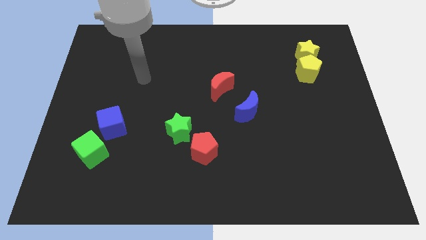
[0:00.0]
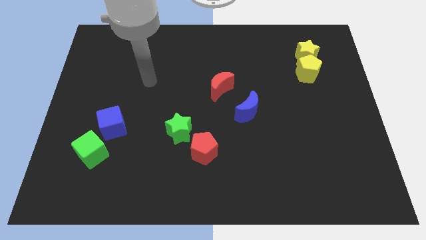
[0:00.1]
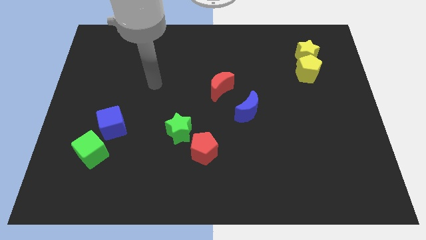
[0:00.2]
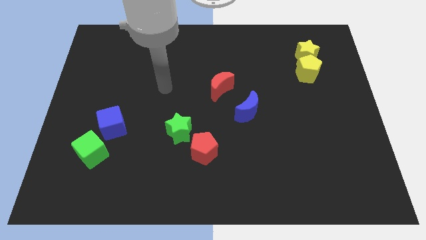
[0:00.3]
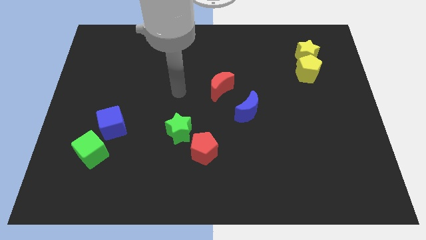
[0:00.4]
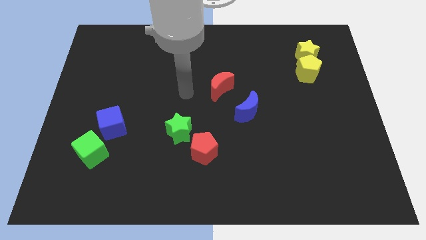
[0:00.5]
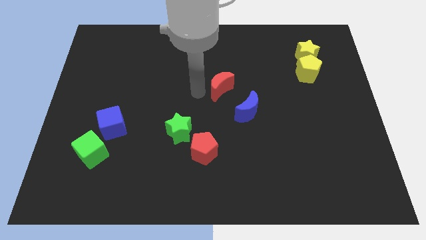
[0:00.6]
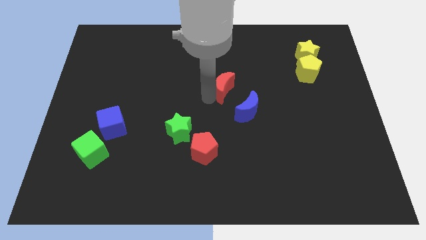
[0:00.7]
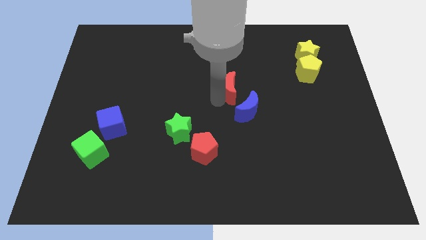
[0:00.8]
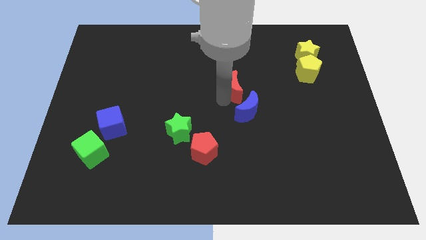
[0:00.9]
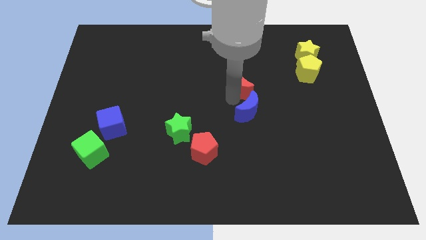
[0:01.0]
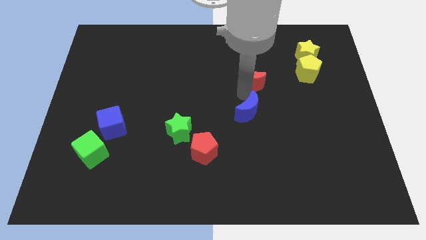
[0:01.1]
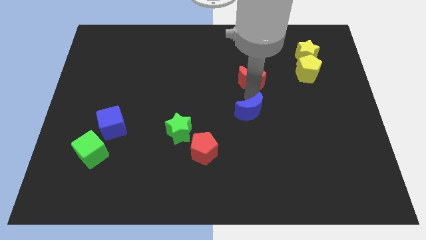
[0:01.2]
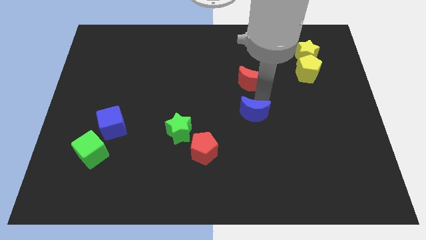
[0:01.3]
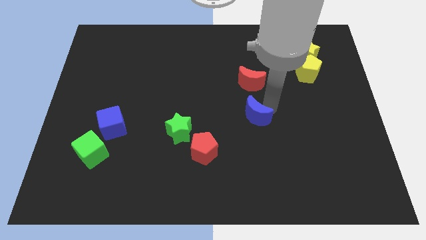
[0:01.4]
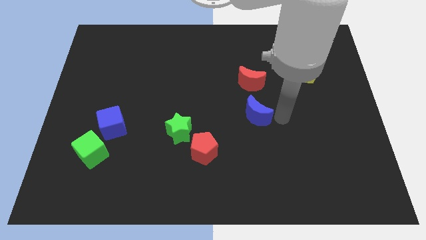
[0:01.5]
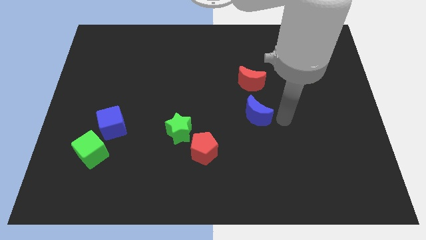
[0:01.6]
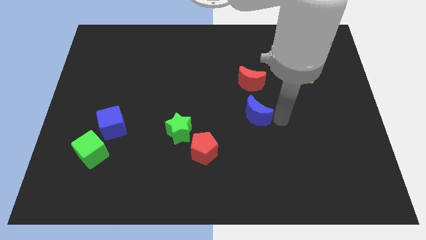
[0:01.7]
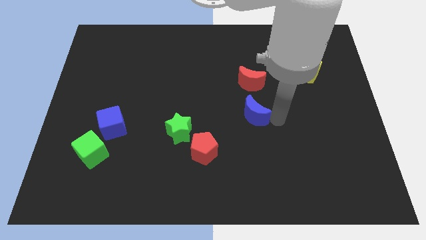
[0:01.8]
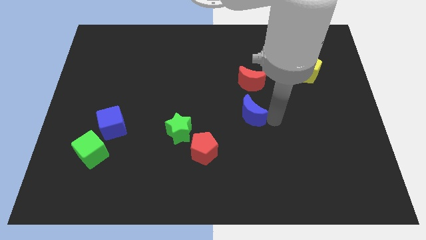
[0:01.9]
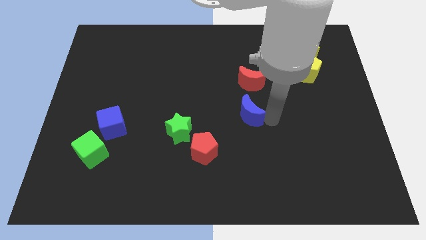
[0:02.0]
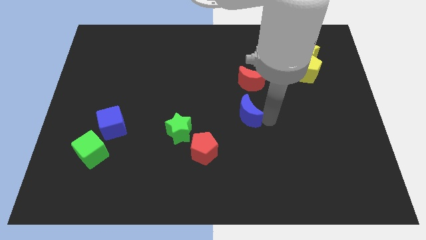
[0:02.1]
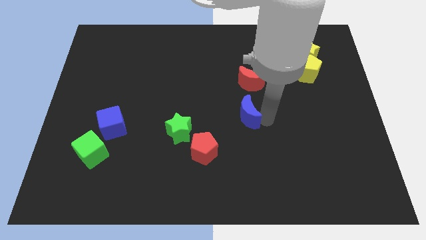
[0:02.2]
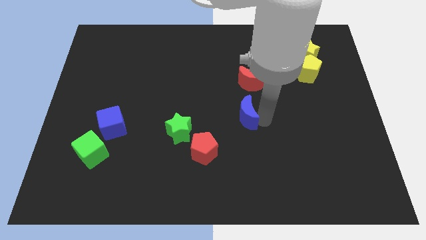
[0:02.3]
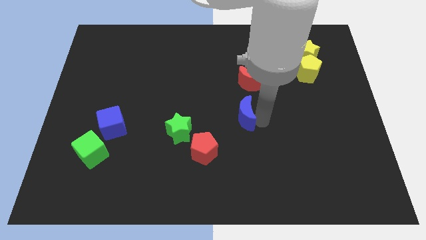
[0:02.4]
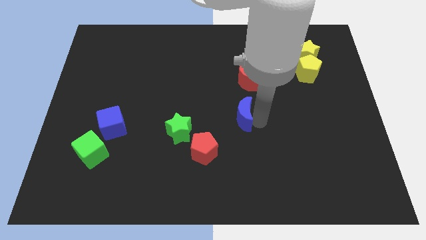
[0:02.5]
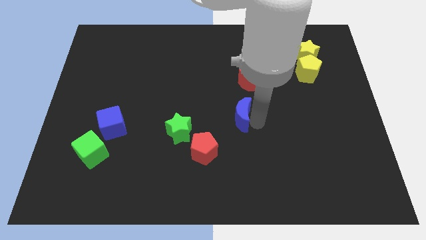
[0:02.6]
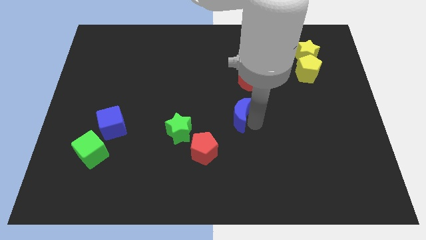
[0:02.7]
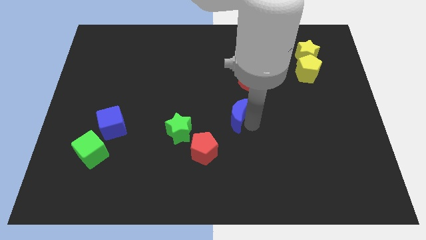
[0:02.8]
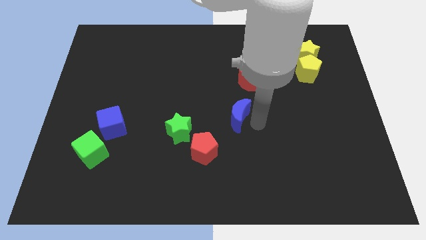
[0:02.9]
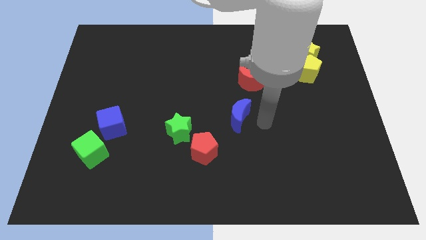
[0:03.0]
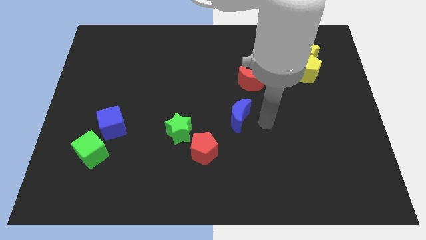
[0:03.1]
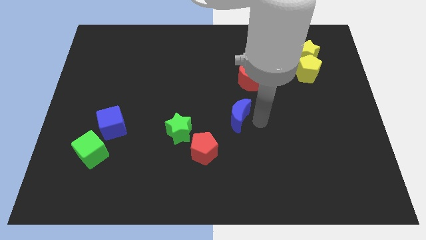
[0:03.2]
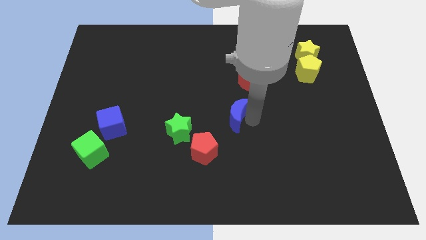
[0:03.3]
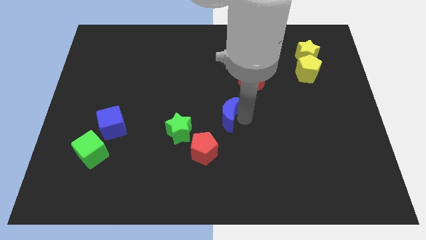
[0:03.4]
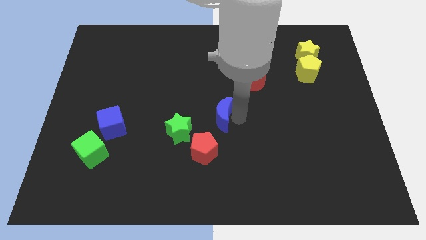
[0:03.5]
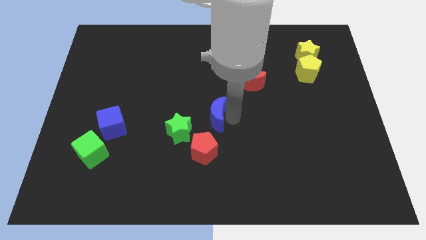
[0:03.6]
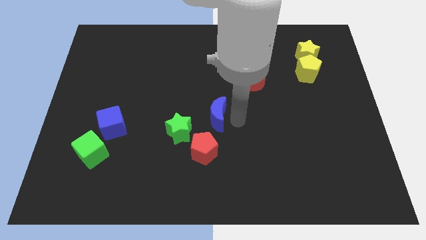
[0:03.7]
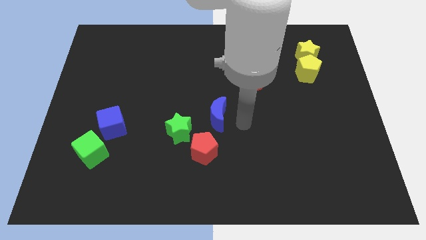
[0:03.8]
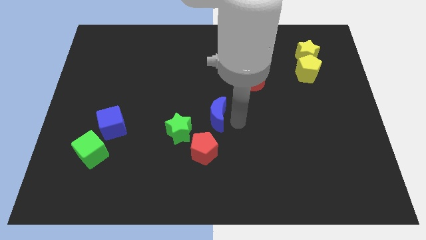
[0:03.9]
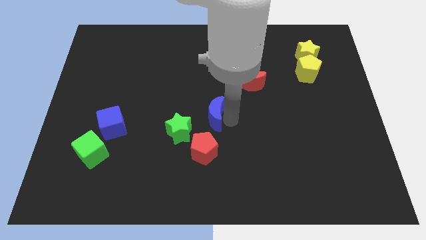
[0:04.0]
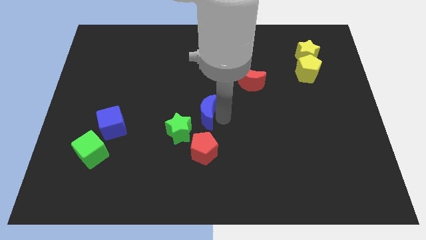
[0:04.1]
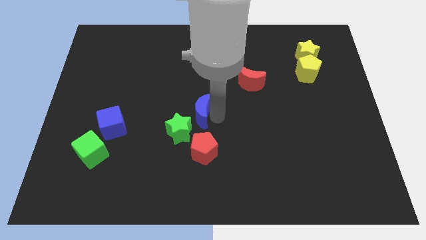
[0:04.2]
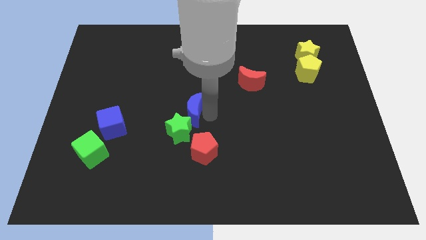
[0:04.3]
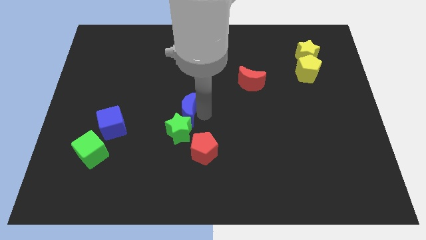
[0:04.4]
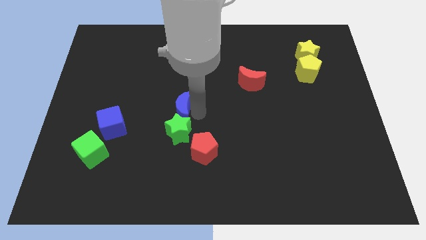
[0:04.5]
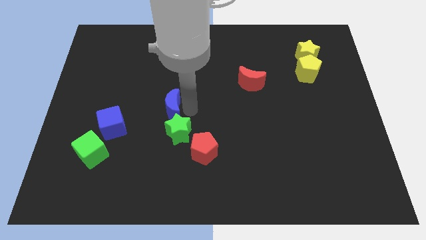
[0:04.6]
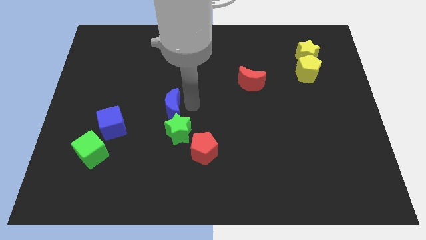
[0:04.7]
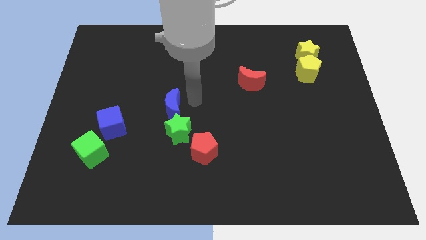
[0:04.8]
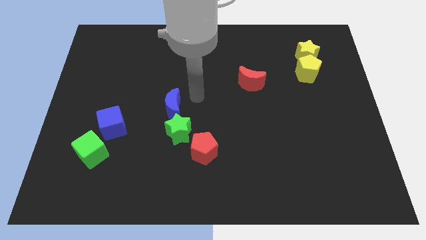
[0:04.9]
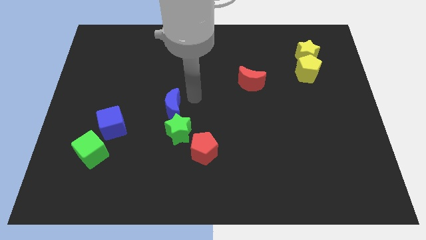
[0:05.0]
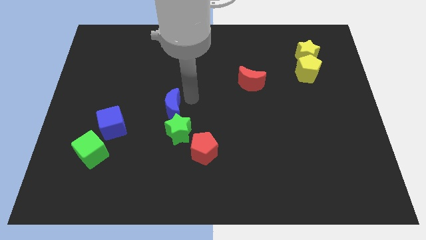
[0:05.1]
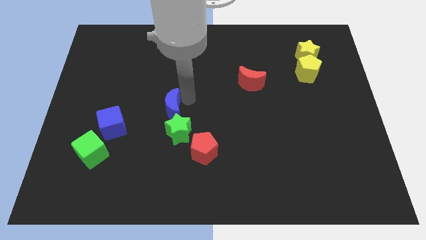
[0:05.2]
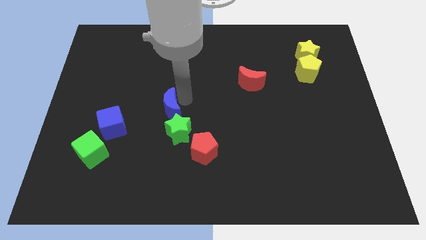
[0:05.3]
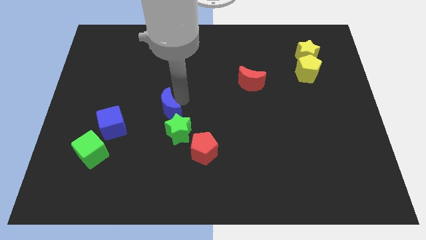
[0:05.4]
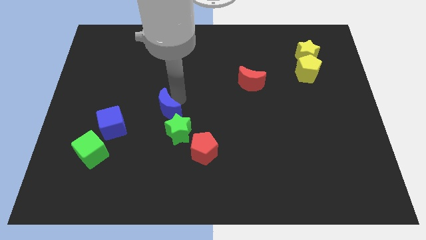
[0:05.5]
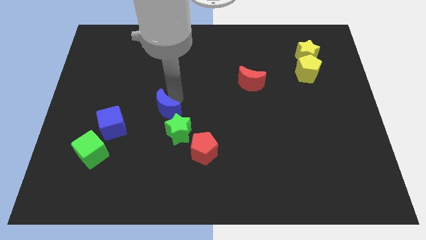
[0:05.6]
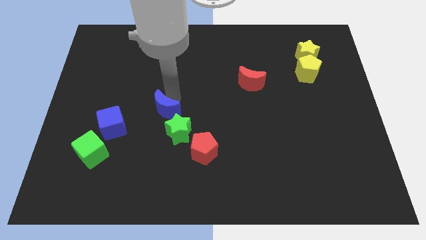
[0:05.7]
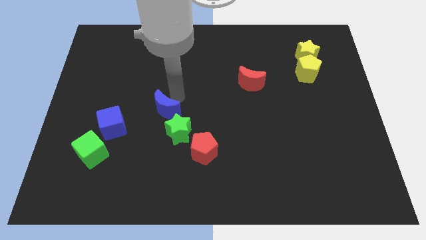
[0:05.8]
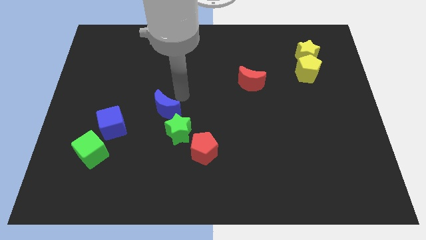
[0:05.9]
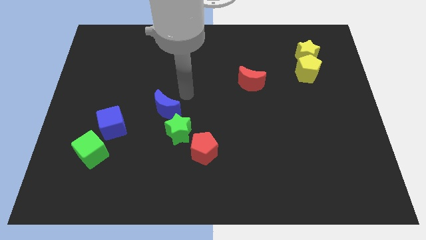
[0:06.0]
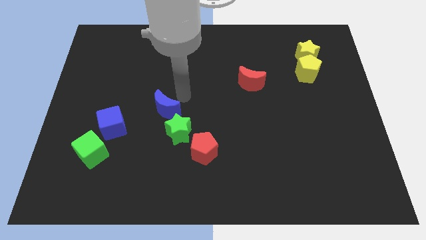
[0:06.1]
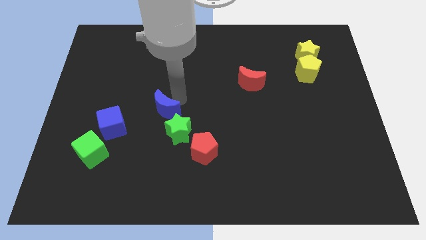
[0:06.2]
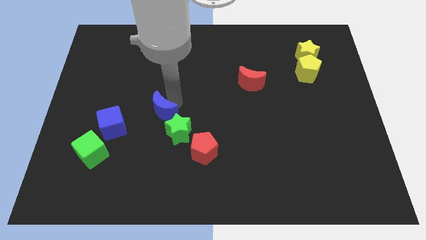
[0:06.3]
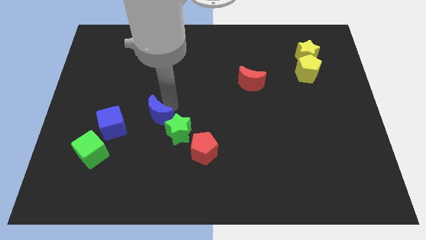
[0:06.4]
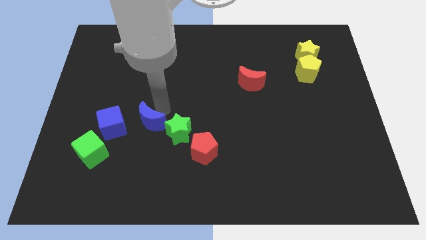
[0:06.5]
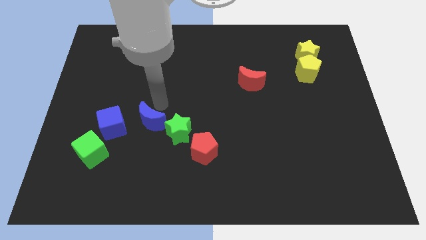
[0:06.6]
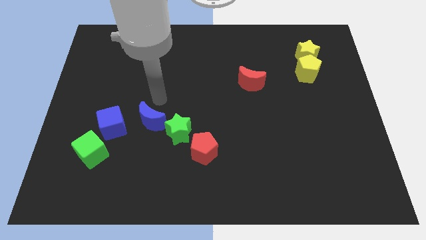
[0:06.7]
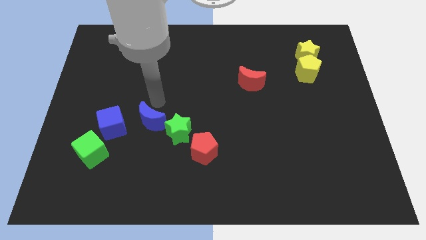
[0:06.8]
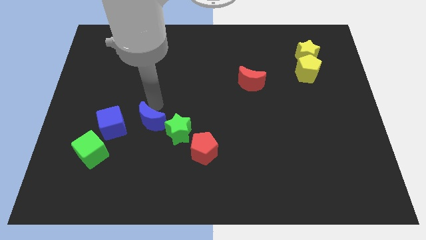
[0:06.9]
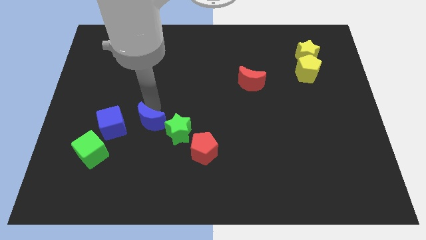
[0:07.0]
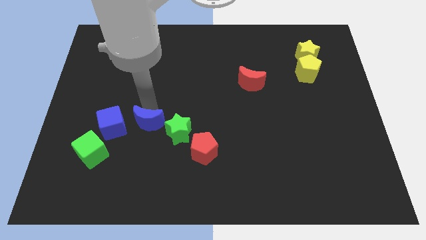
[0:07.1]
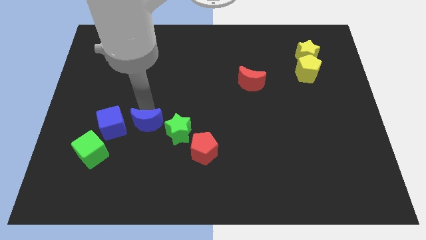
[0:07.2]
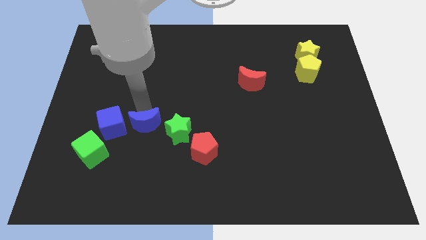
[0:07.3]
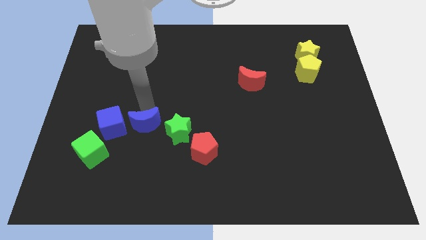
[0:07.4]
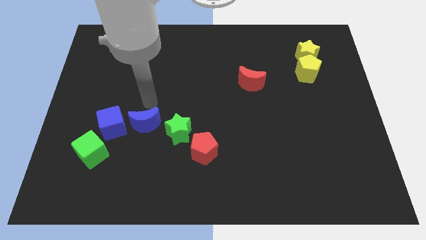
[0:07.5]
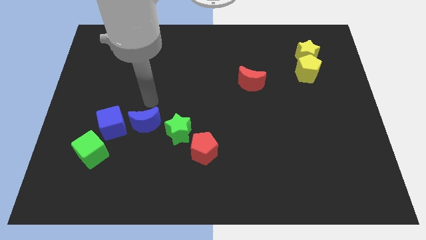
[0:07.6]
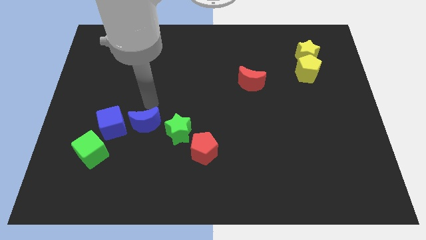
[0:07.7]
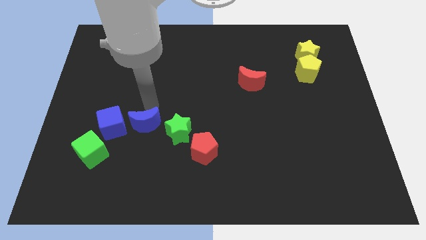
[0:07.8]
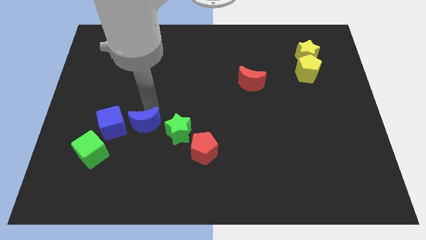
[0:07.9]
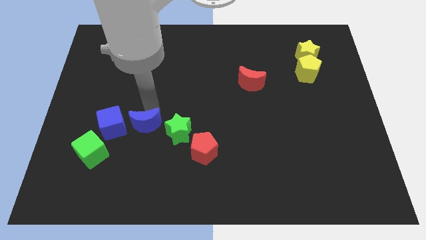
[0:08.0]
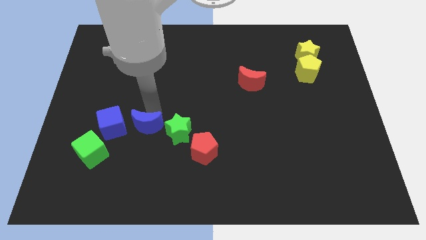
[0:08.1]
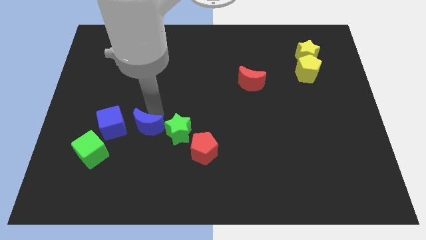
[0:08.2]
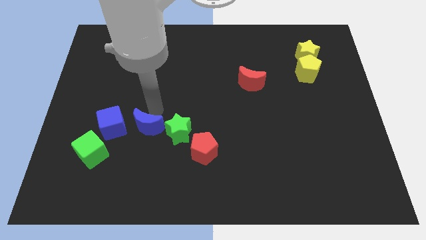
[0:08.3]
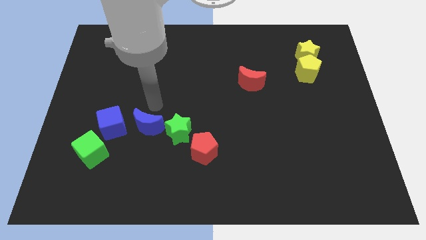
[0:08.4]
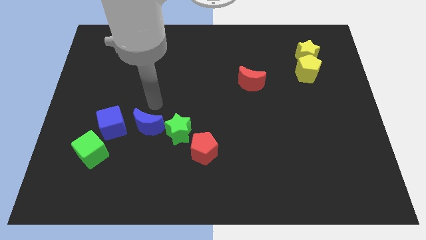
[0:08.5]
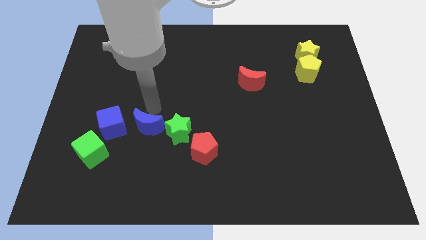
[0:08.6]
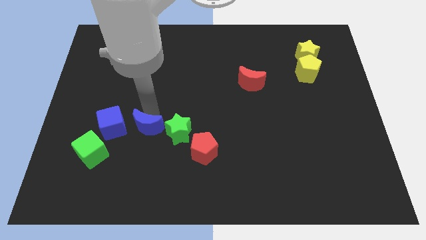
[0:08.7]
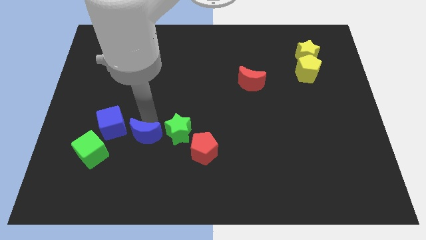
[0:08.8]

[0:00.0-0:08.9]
put the blue moon just right of the green cube
